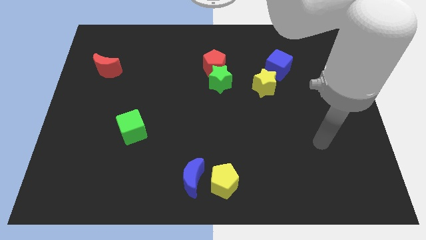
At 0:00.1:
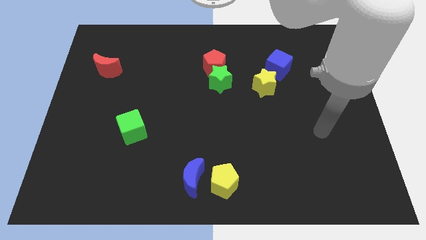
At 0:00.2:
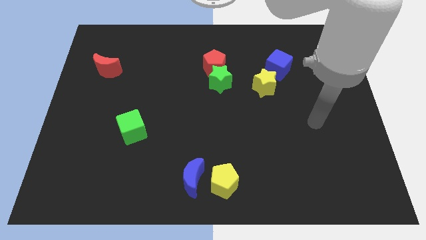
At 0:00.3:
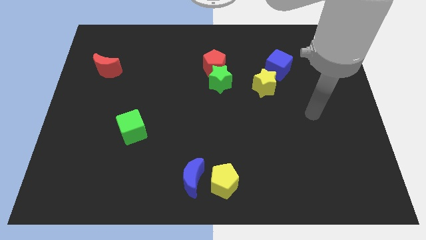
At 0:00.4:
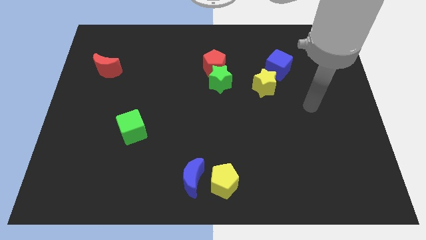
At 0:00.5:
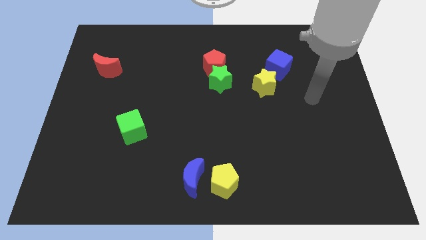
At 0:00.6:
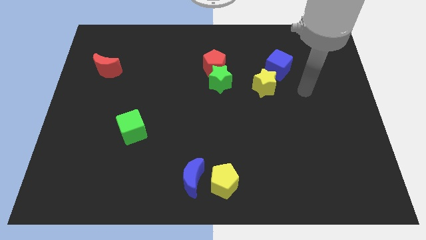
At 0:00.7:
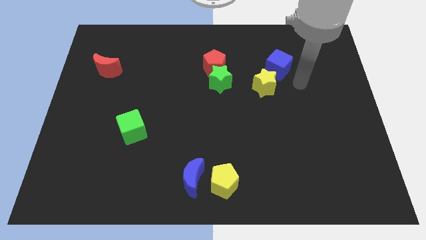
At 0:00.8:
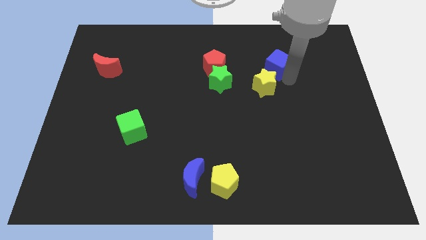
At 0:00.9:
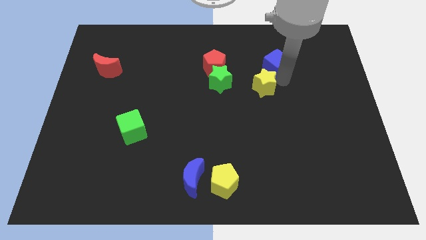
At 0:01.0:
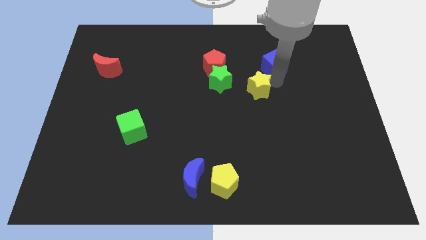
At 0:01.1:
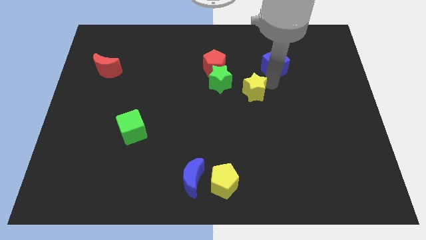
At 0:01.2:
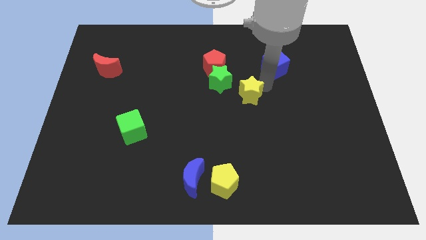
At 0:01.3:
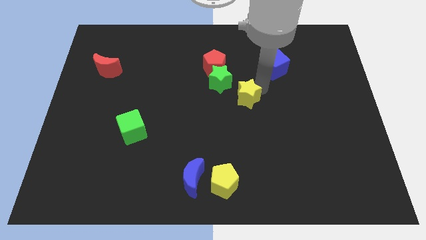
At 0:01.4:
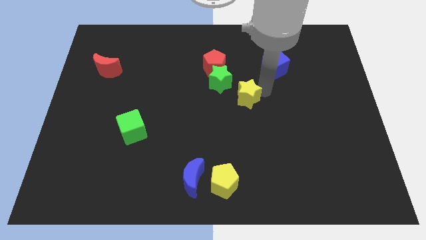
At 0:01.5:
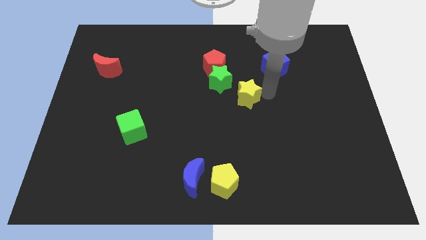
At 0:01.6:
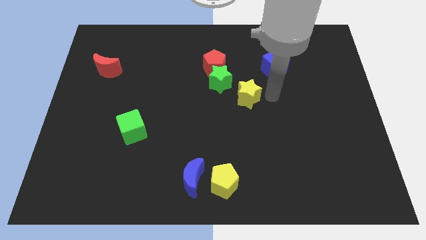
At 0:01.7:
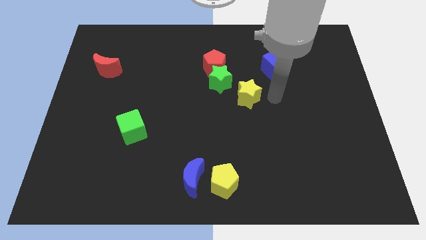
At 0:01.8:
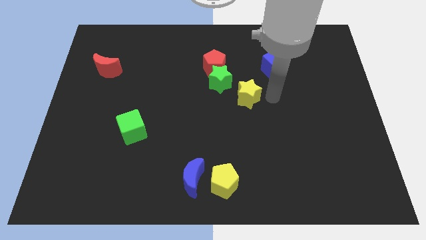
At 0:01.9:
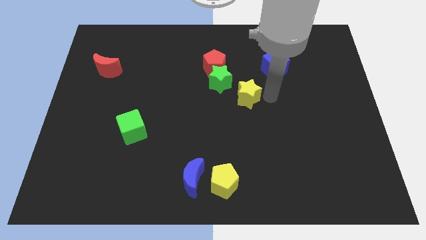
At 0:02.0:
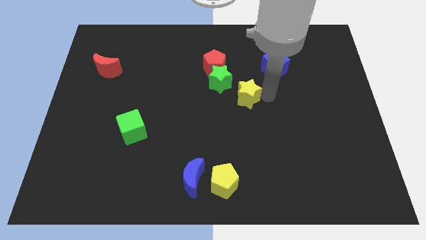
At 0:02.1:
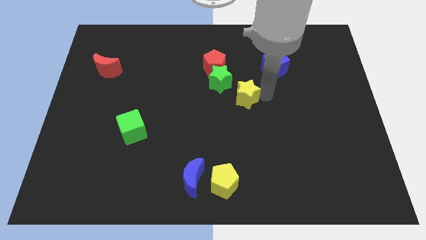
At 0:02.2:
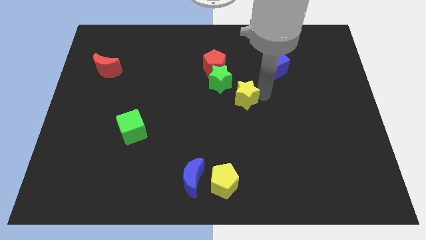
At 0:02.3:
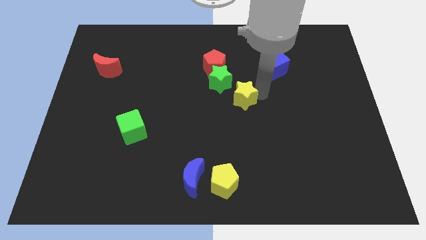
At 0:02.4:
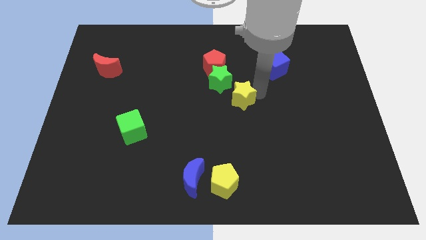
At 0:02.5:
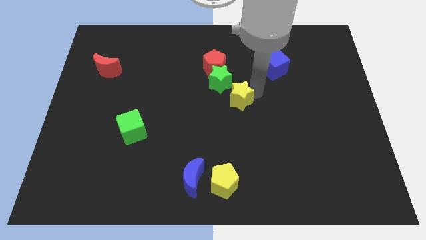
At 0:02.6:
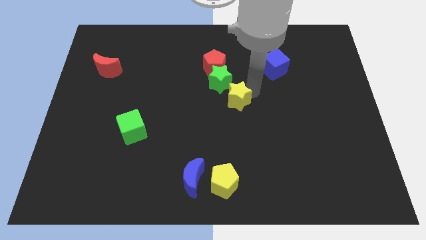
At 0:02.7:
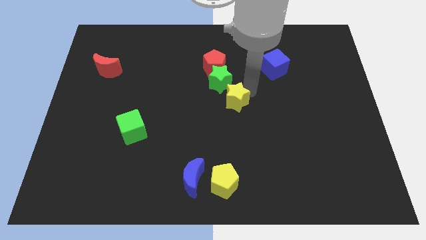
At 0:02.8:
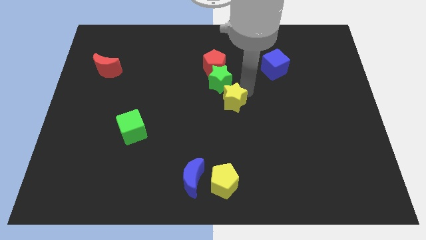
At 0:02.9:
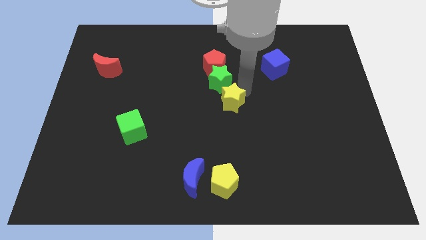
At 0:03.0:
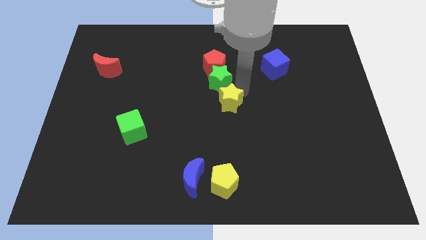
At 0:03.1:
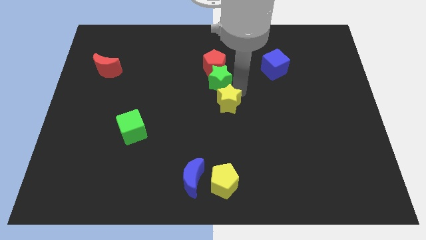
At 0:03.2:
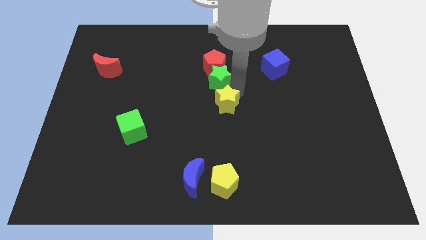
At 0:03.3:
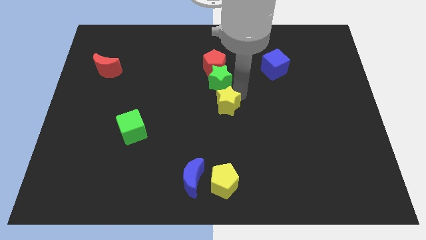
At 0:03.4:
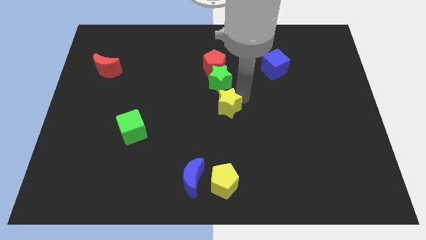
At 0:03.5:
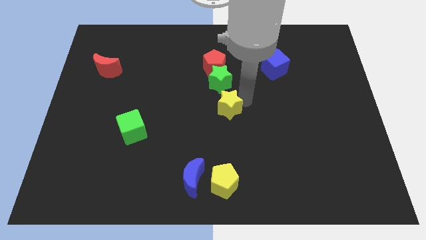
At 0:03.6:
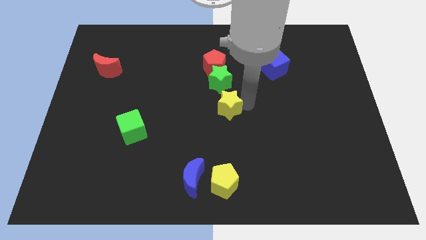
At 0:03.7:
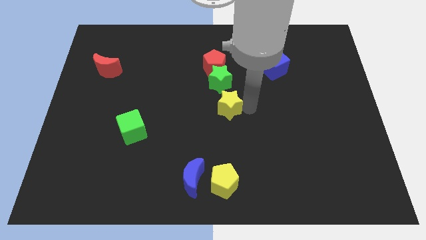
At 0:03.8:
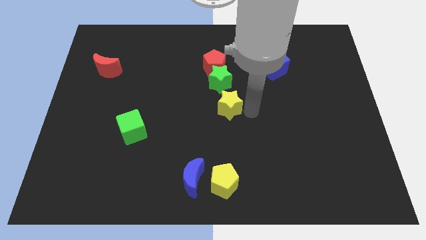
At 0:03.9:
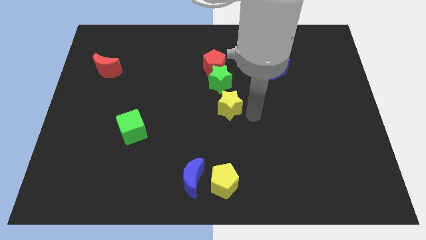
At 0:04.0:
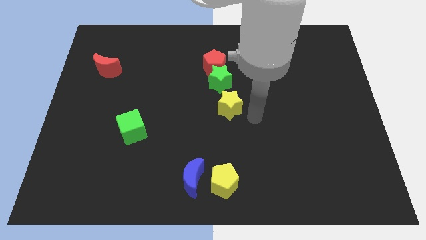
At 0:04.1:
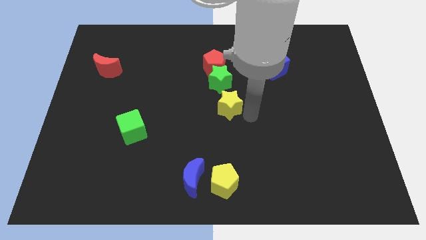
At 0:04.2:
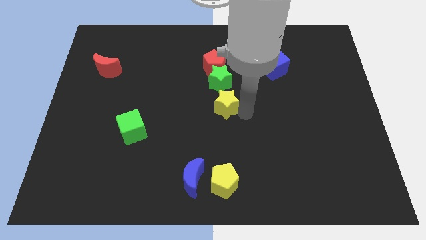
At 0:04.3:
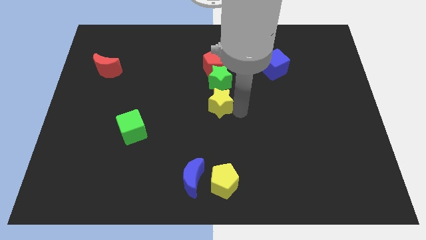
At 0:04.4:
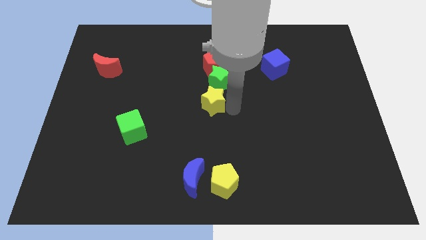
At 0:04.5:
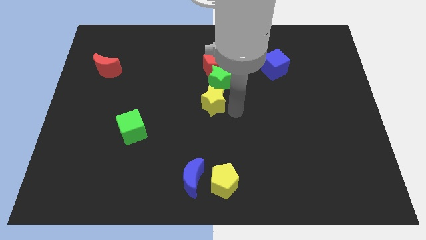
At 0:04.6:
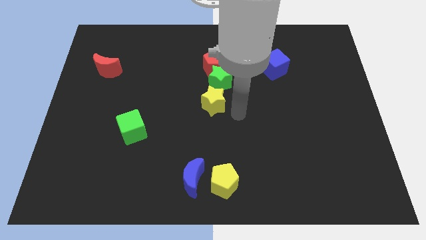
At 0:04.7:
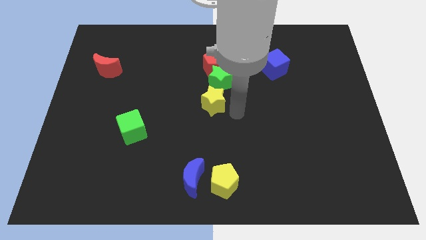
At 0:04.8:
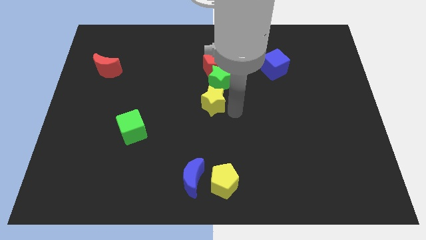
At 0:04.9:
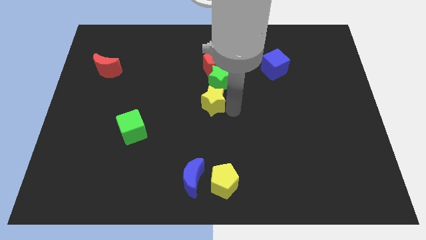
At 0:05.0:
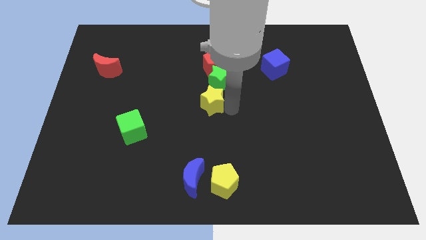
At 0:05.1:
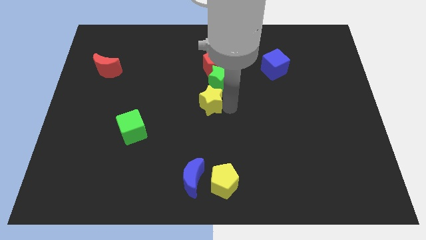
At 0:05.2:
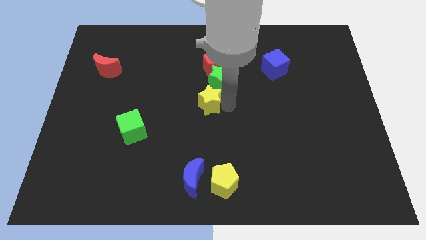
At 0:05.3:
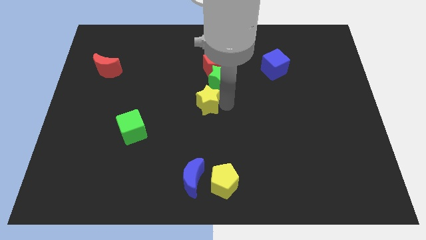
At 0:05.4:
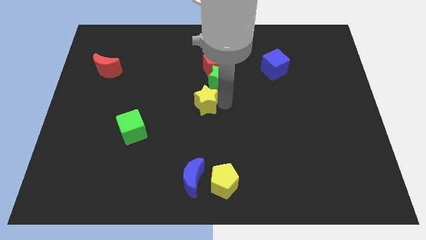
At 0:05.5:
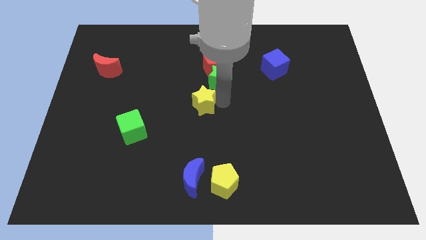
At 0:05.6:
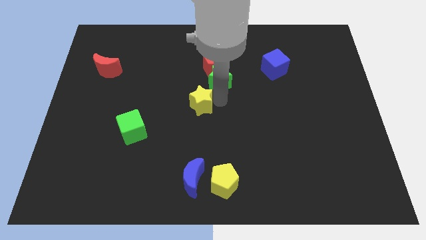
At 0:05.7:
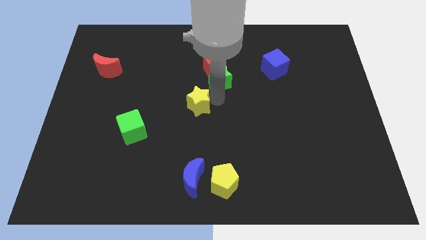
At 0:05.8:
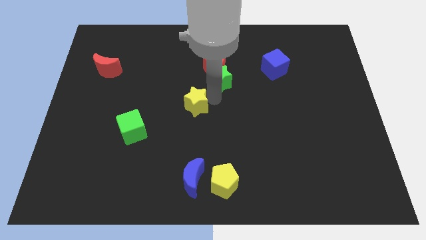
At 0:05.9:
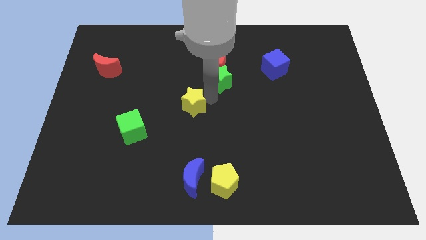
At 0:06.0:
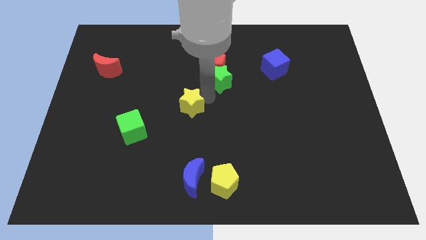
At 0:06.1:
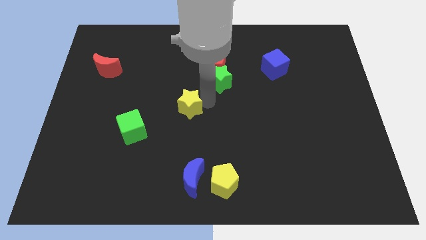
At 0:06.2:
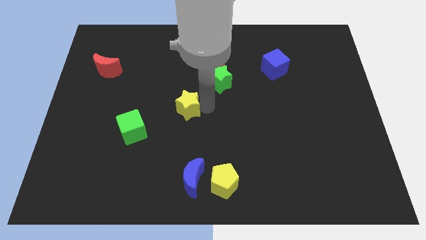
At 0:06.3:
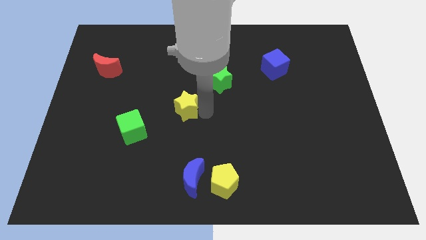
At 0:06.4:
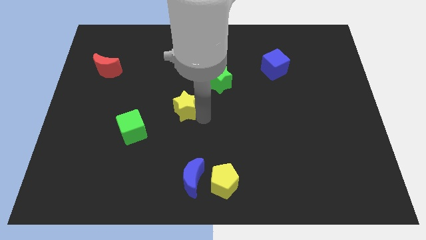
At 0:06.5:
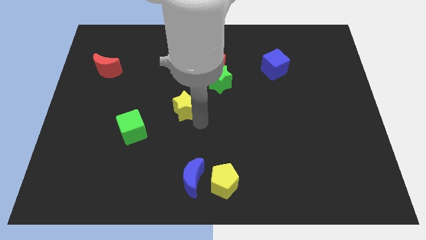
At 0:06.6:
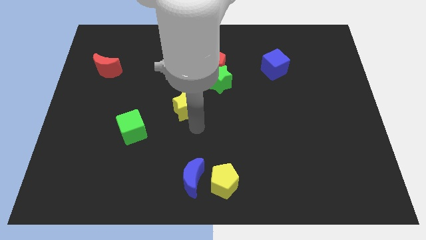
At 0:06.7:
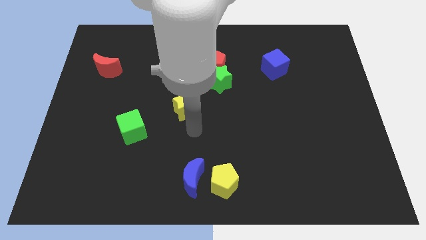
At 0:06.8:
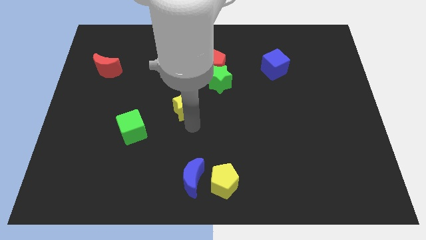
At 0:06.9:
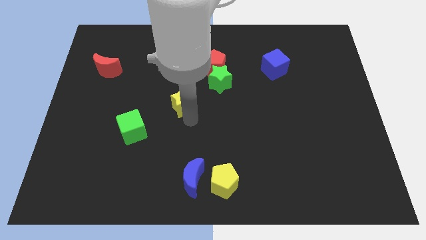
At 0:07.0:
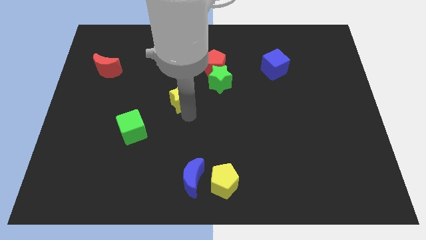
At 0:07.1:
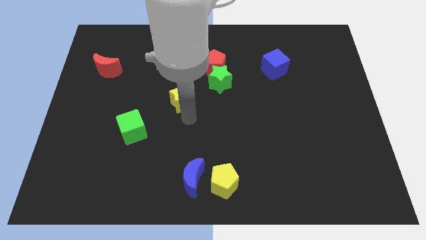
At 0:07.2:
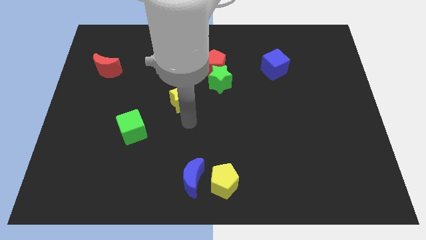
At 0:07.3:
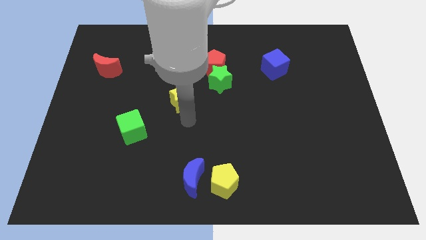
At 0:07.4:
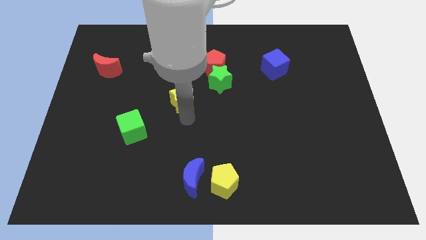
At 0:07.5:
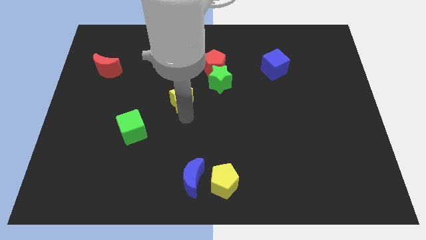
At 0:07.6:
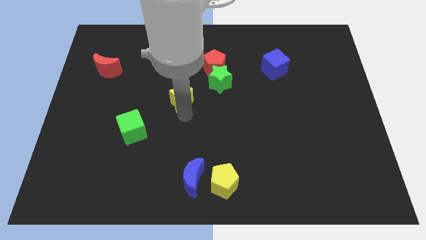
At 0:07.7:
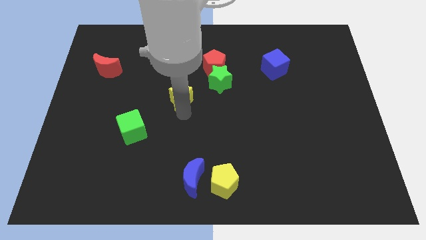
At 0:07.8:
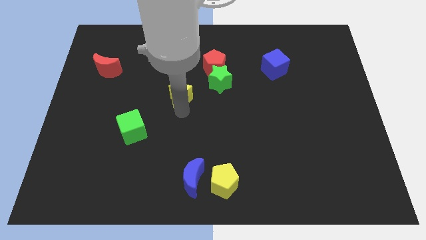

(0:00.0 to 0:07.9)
slide the yellow star to the left

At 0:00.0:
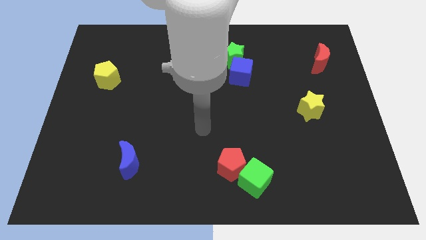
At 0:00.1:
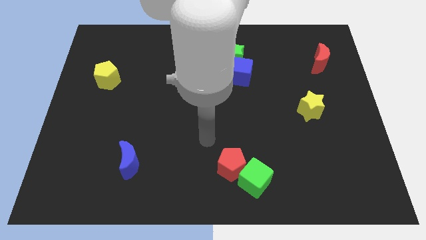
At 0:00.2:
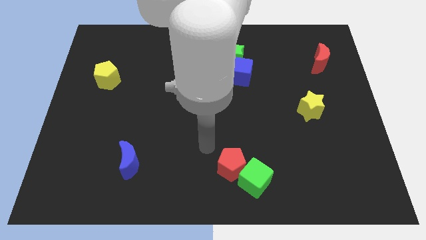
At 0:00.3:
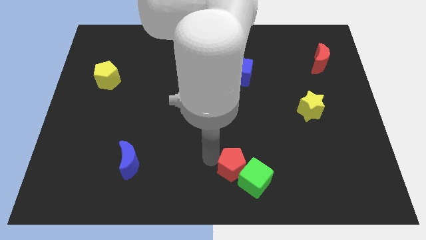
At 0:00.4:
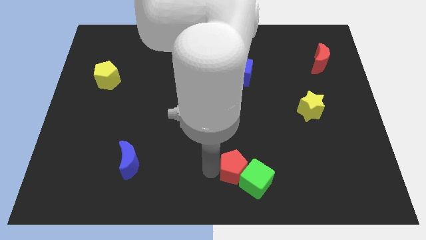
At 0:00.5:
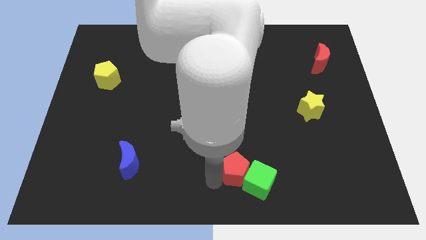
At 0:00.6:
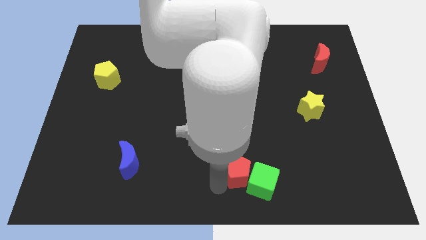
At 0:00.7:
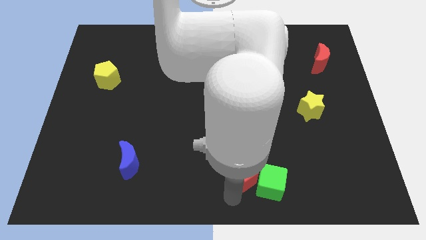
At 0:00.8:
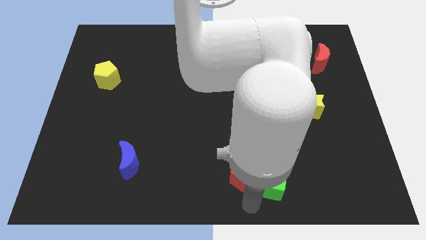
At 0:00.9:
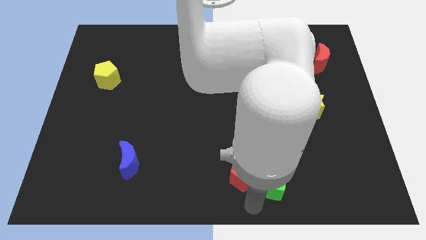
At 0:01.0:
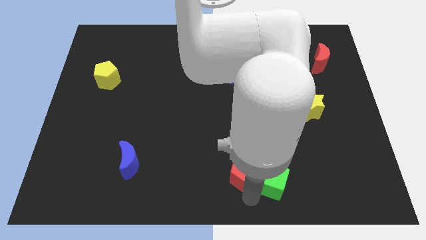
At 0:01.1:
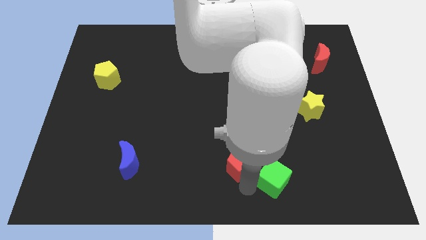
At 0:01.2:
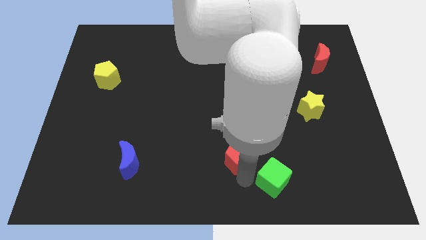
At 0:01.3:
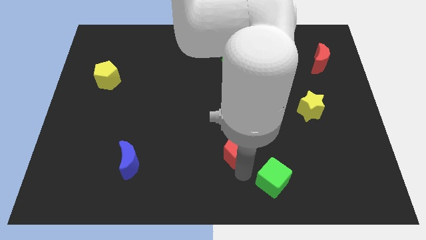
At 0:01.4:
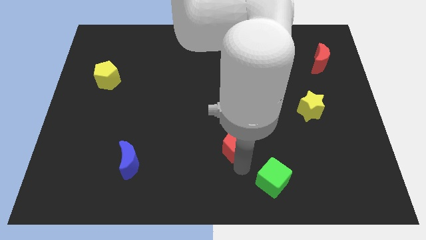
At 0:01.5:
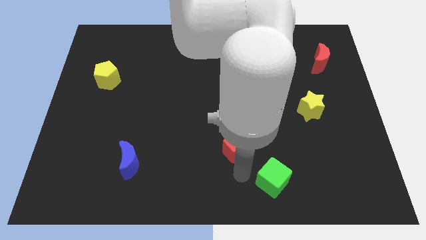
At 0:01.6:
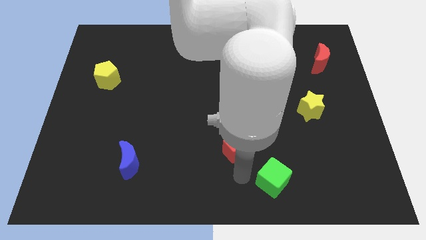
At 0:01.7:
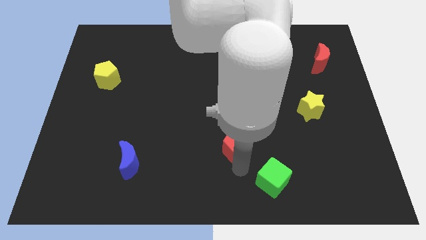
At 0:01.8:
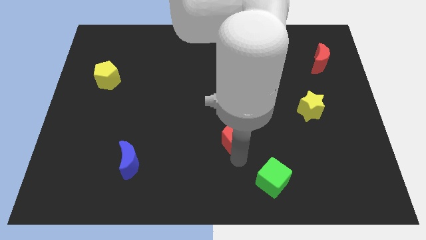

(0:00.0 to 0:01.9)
slide the red pentagon a little bit up
